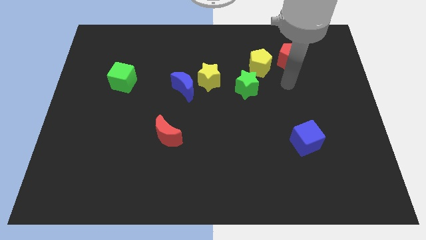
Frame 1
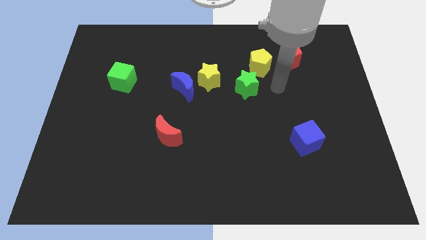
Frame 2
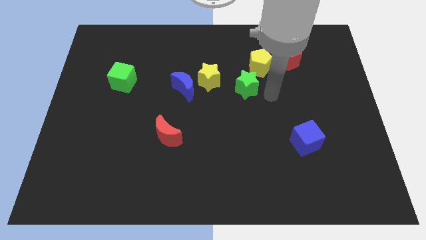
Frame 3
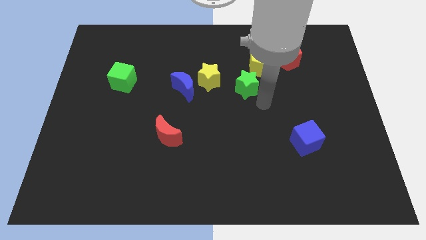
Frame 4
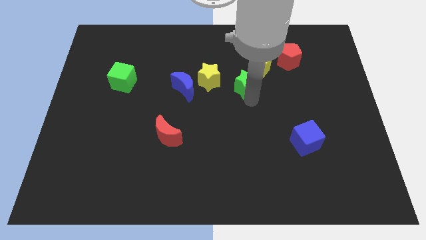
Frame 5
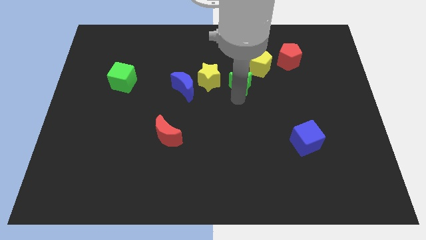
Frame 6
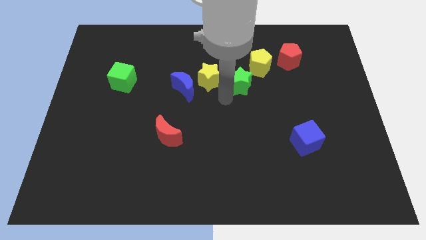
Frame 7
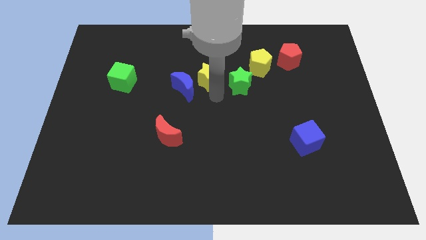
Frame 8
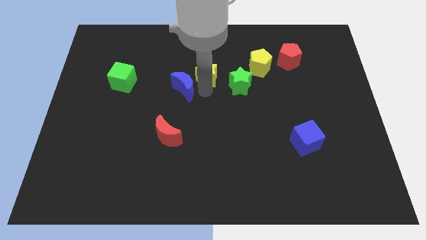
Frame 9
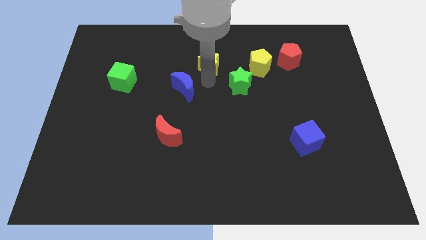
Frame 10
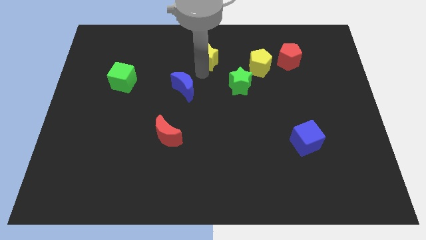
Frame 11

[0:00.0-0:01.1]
move the blue moon away from the yellow star

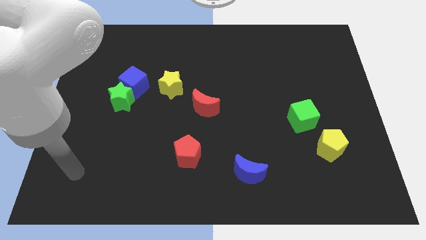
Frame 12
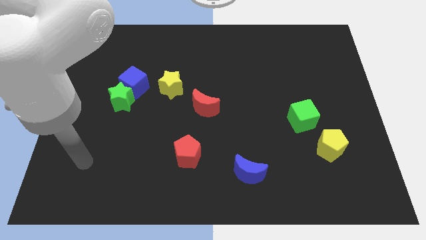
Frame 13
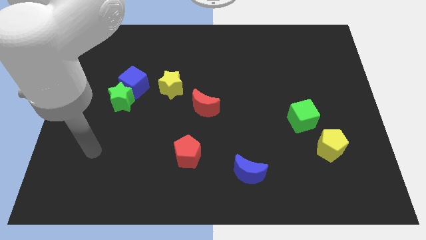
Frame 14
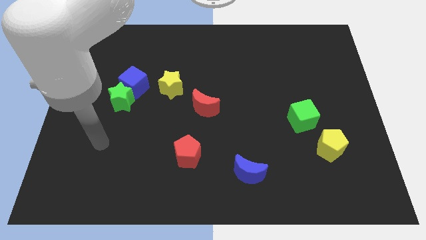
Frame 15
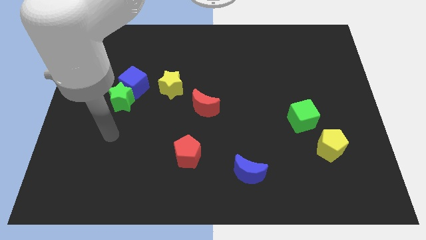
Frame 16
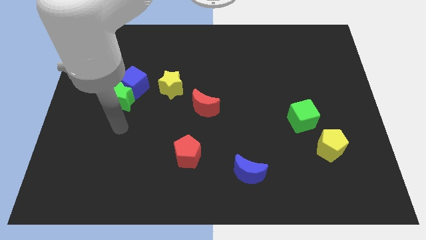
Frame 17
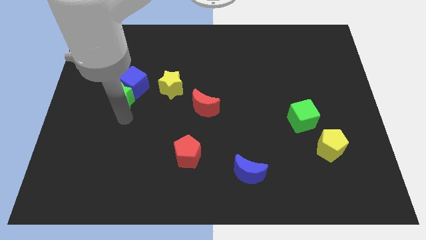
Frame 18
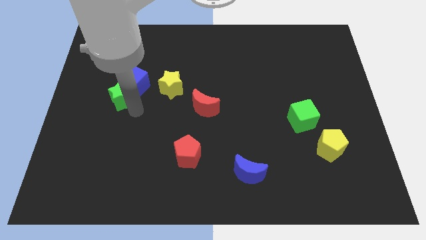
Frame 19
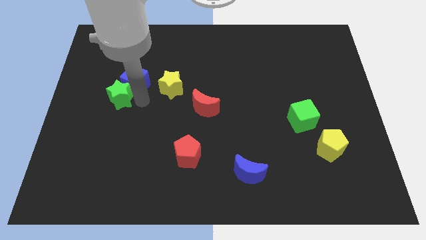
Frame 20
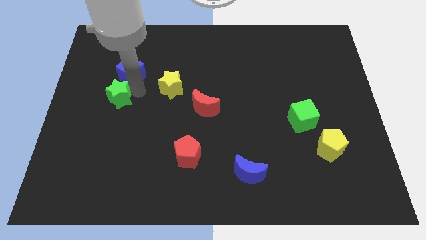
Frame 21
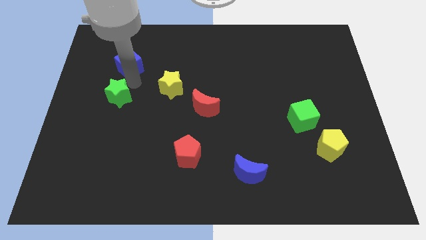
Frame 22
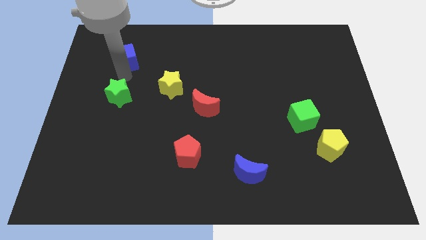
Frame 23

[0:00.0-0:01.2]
pull the green star apart from the blue cube

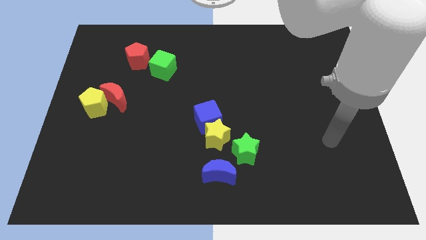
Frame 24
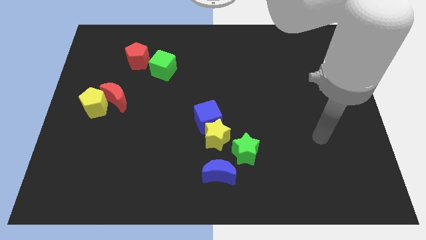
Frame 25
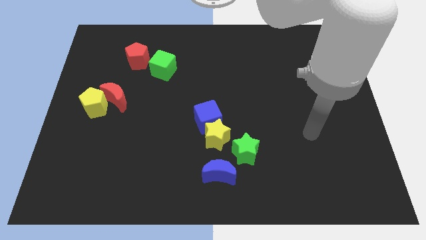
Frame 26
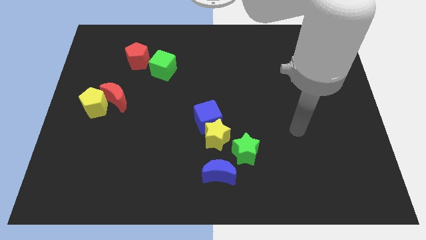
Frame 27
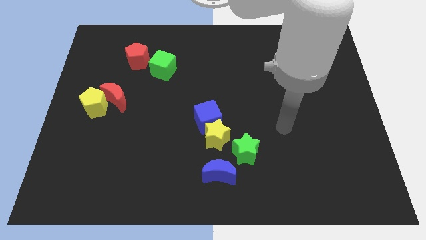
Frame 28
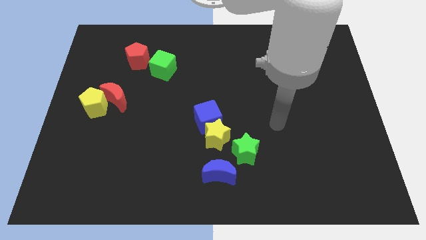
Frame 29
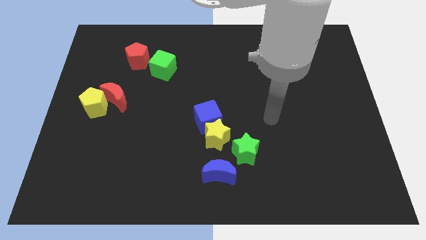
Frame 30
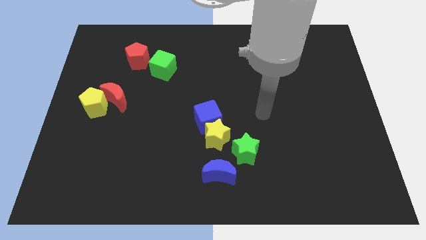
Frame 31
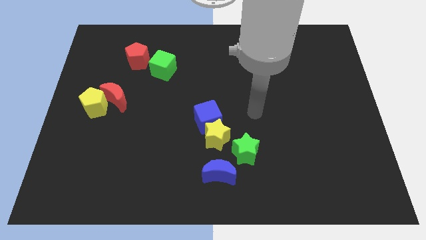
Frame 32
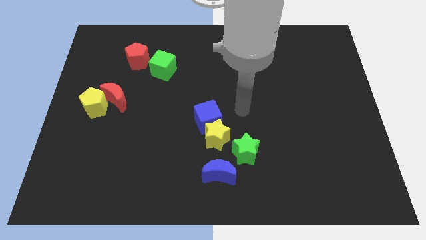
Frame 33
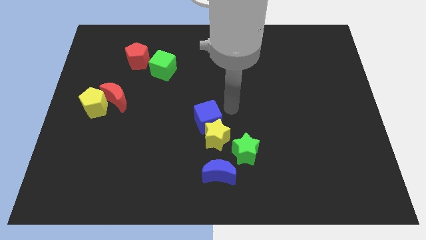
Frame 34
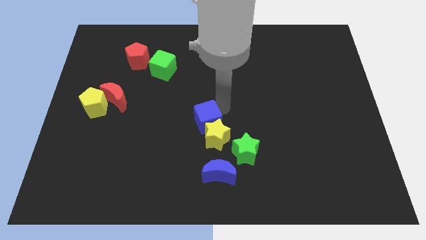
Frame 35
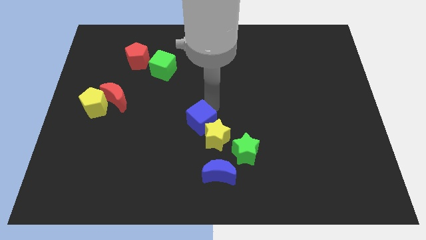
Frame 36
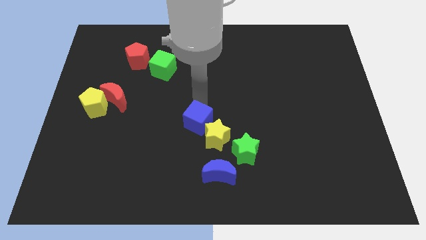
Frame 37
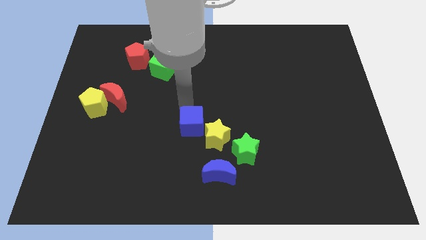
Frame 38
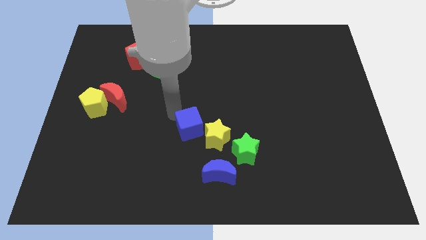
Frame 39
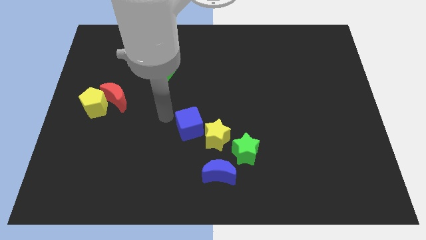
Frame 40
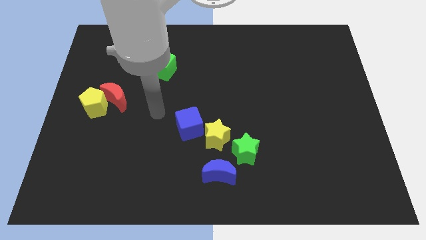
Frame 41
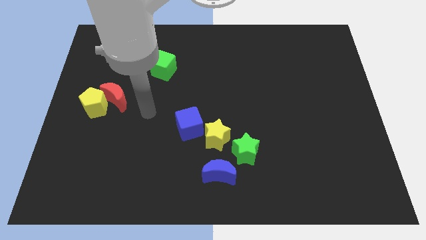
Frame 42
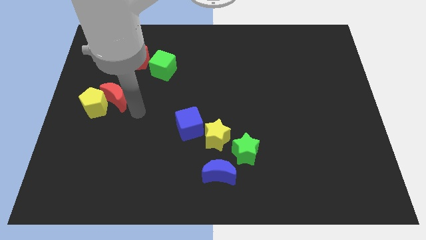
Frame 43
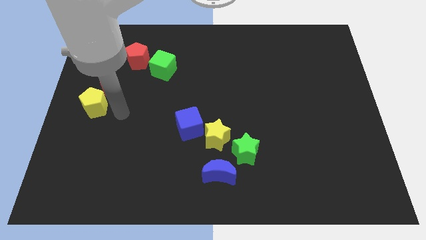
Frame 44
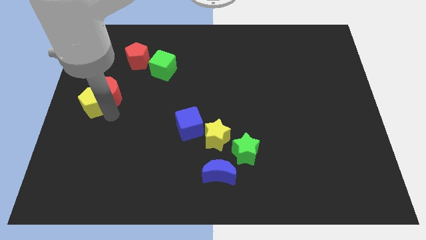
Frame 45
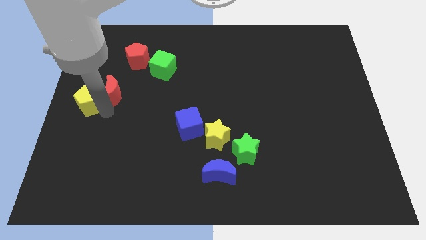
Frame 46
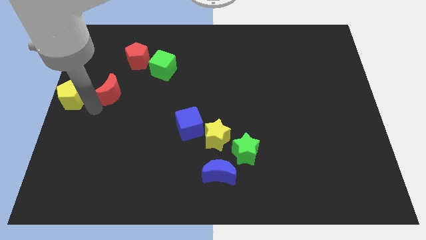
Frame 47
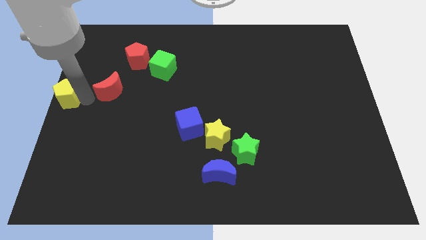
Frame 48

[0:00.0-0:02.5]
move the red moon away from the yellow pentagon

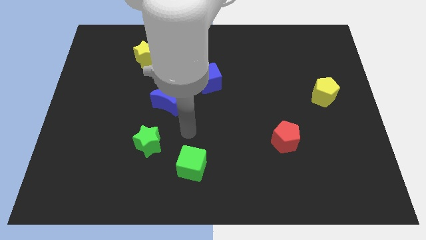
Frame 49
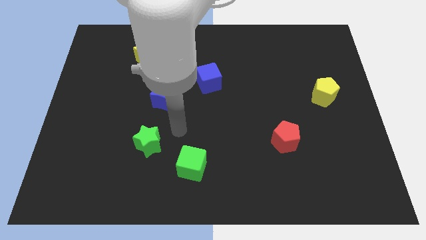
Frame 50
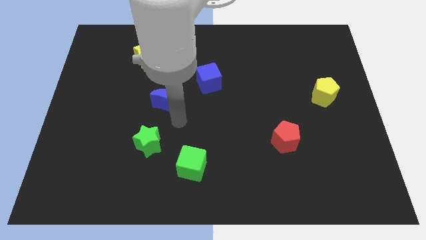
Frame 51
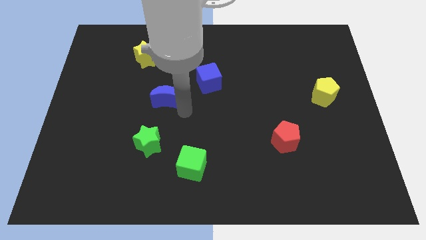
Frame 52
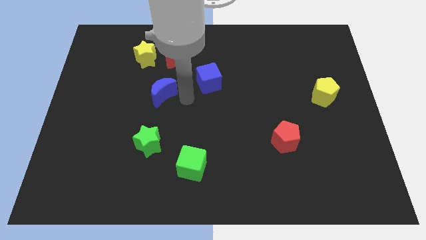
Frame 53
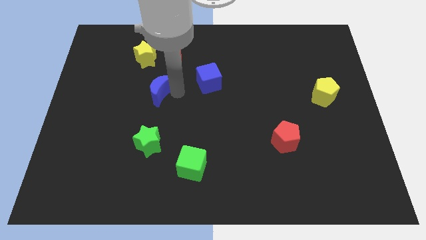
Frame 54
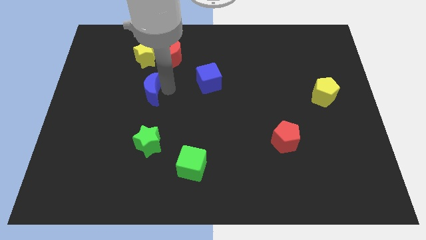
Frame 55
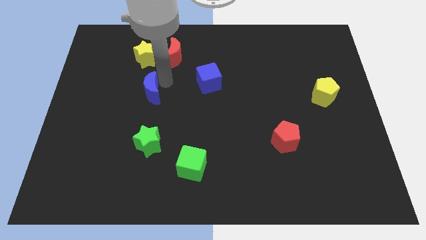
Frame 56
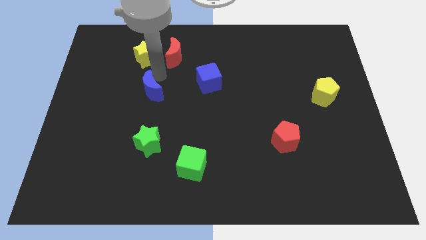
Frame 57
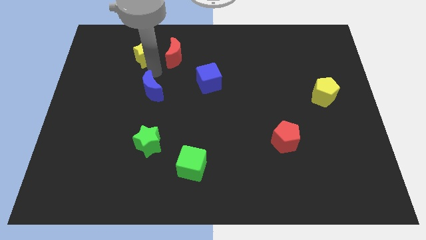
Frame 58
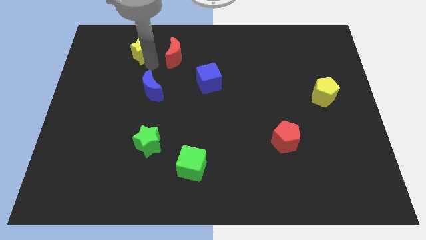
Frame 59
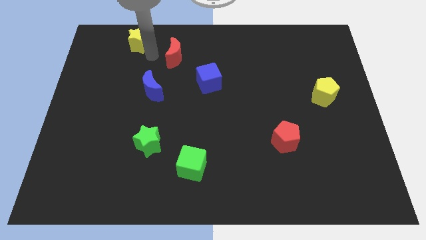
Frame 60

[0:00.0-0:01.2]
pull the red moon apart from the yellow star

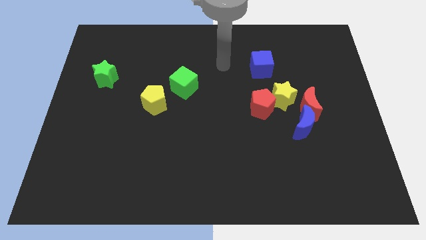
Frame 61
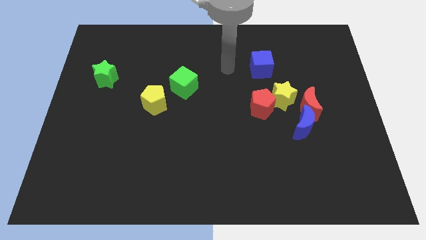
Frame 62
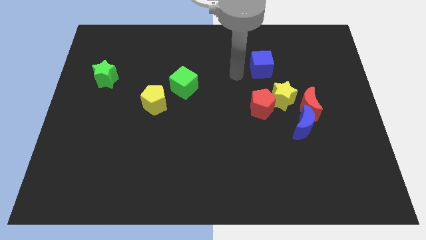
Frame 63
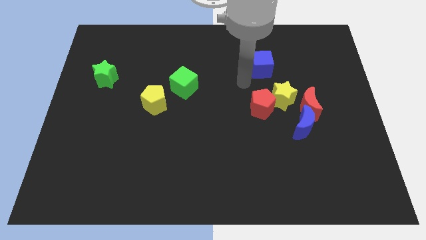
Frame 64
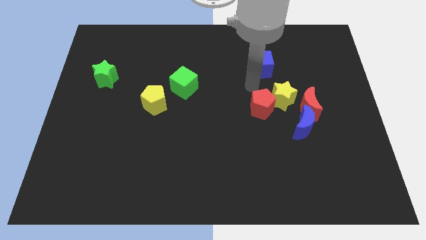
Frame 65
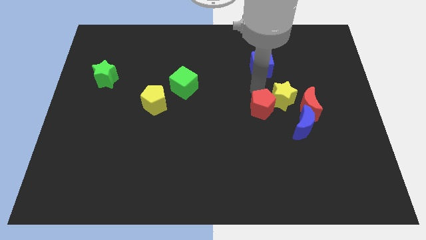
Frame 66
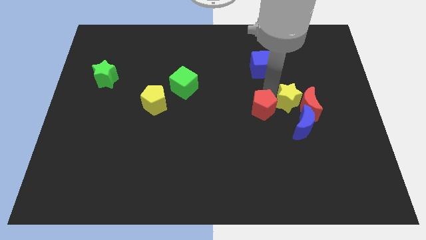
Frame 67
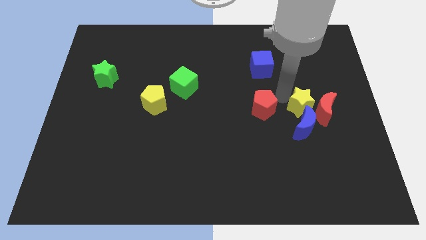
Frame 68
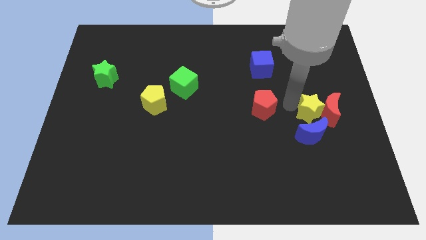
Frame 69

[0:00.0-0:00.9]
separate the red pentagon from the yellow star

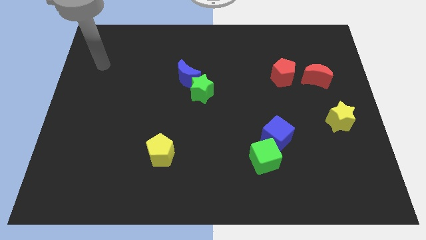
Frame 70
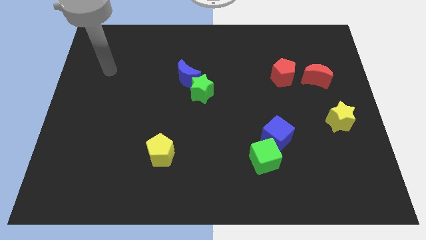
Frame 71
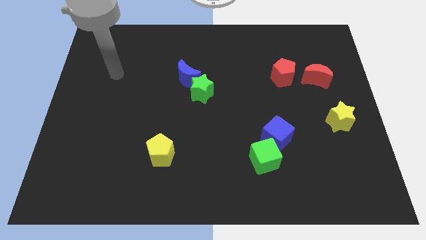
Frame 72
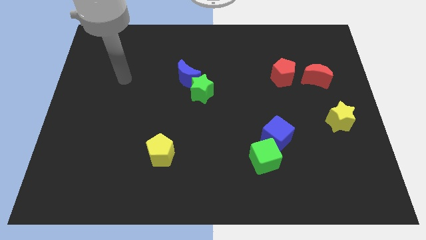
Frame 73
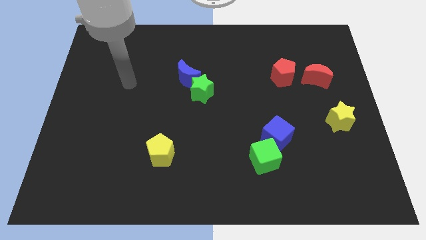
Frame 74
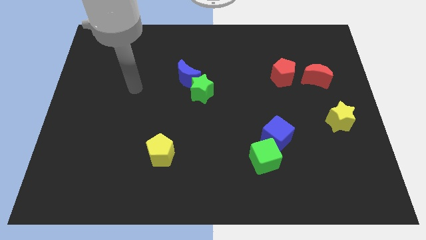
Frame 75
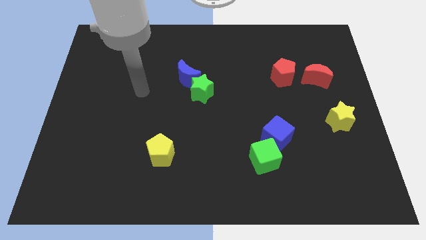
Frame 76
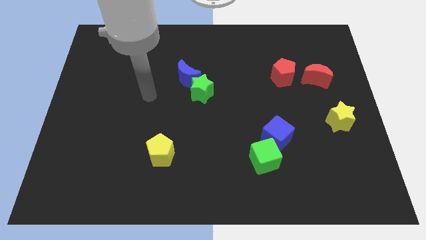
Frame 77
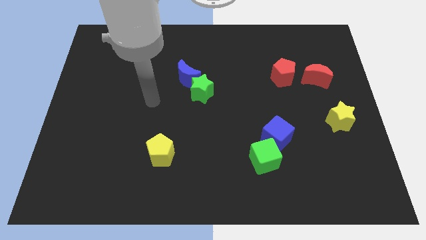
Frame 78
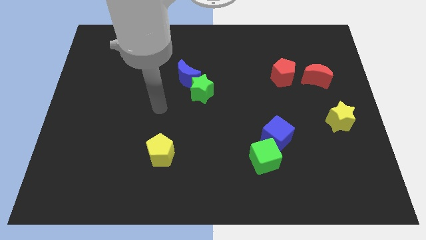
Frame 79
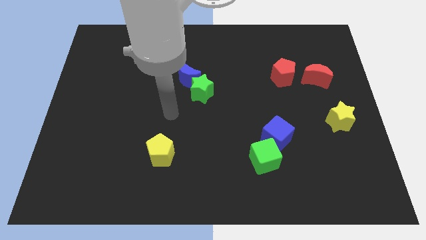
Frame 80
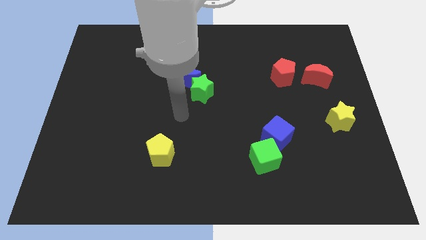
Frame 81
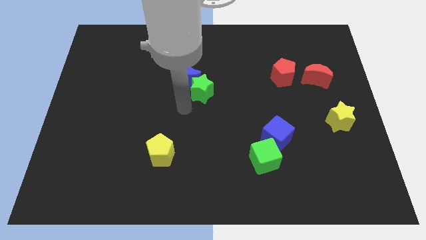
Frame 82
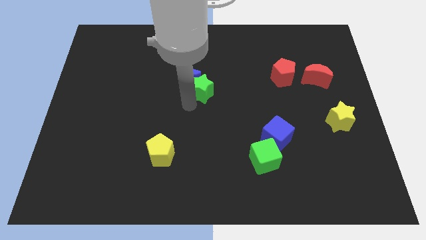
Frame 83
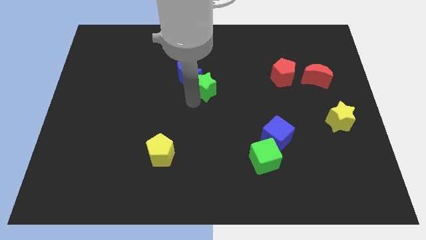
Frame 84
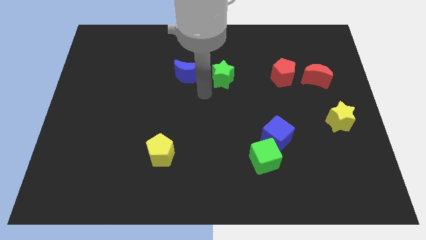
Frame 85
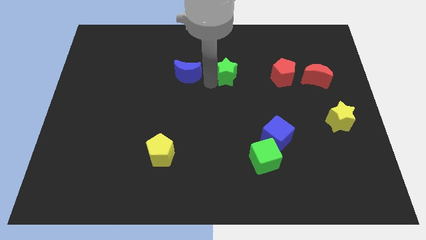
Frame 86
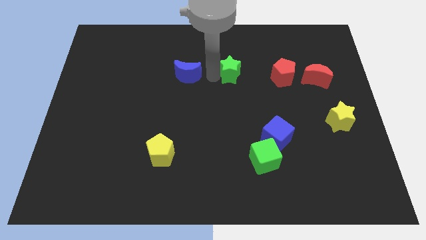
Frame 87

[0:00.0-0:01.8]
move the blue moon away from the green star

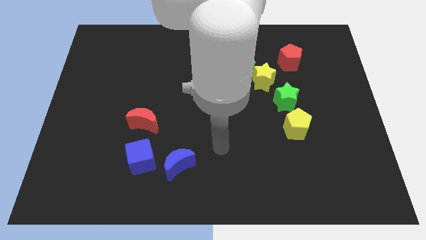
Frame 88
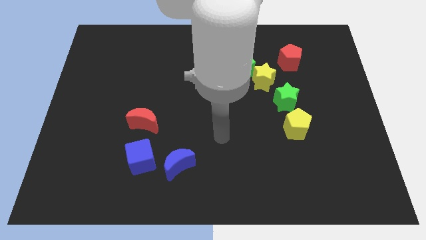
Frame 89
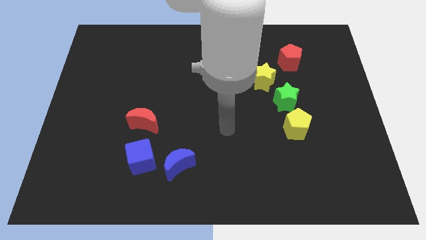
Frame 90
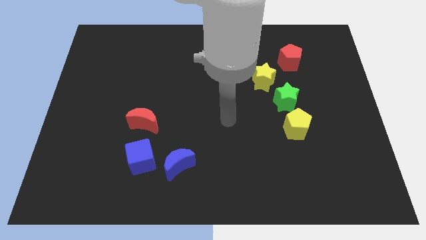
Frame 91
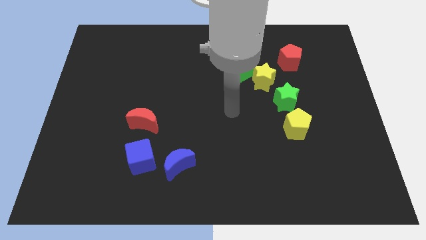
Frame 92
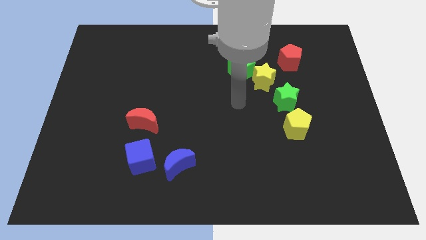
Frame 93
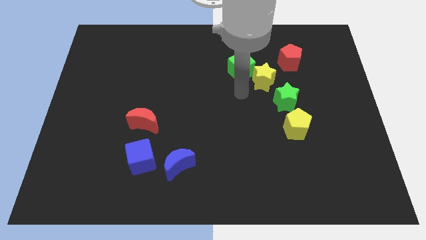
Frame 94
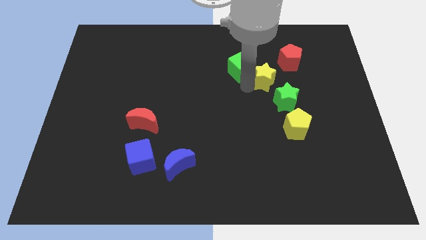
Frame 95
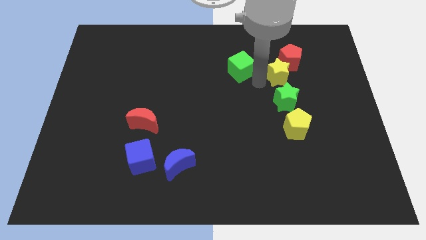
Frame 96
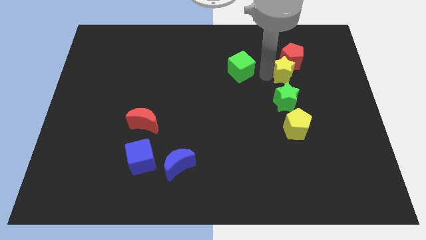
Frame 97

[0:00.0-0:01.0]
separate the green cube from the yellow star
